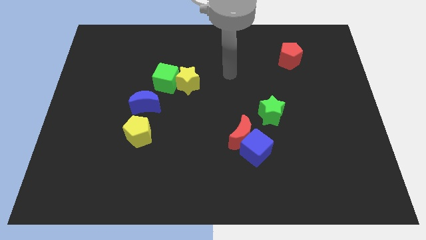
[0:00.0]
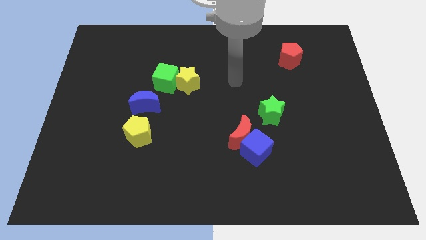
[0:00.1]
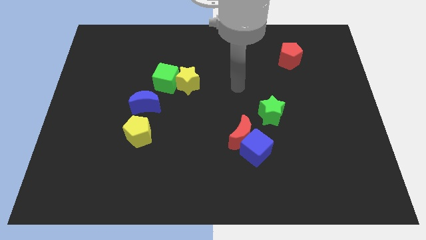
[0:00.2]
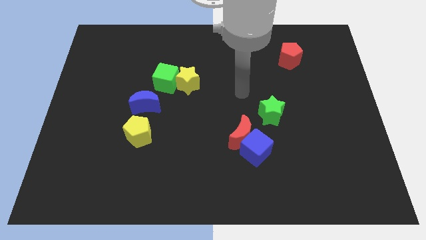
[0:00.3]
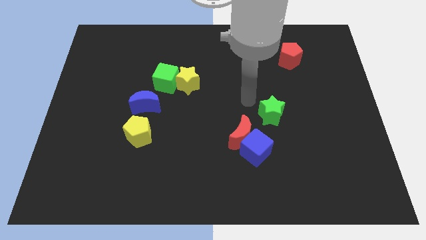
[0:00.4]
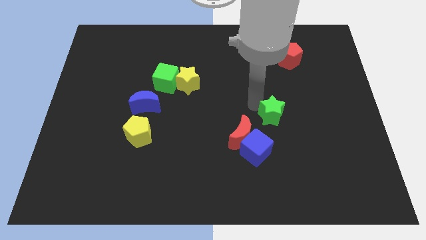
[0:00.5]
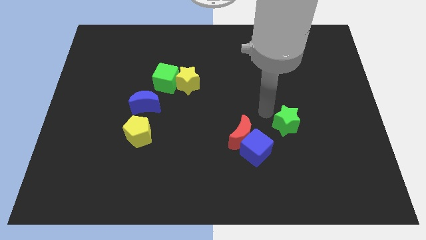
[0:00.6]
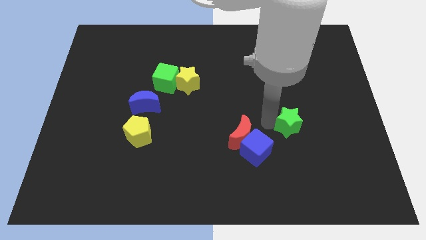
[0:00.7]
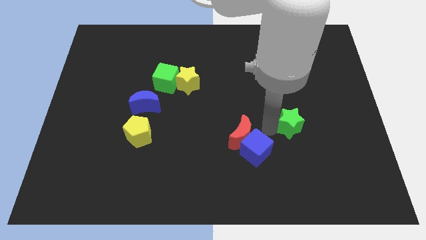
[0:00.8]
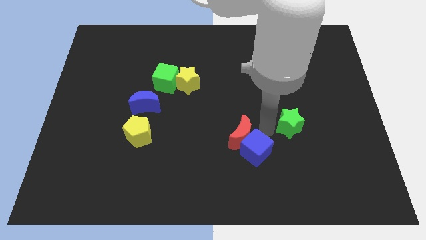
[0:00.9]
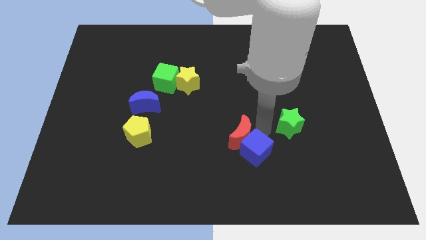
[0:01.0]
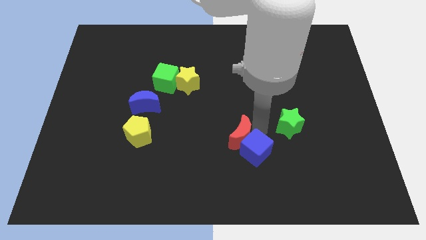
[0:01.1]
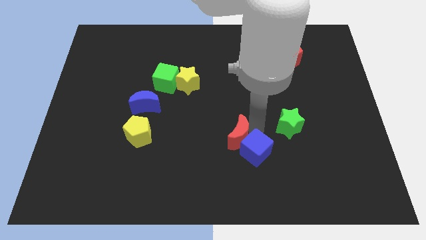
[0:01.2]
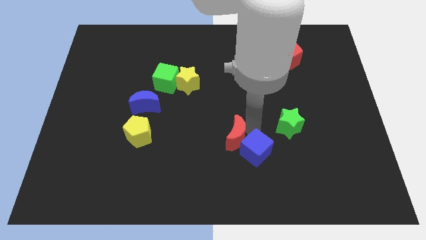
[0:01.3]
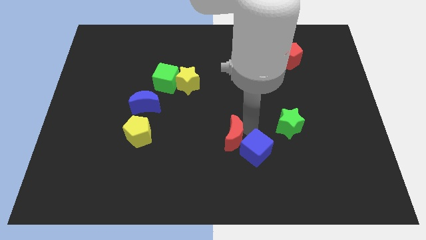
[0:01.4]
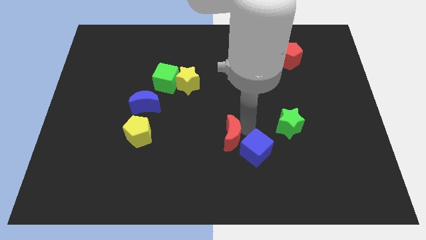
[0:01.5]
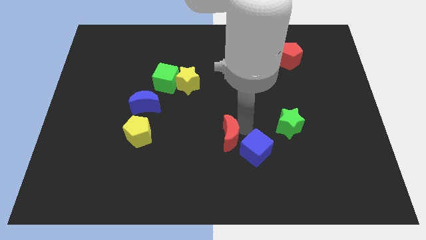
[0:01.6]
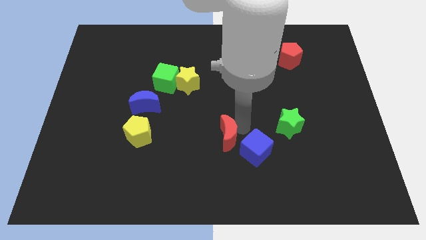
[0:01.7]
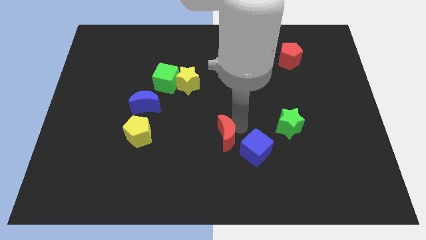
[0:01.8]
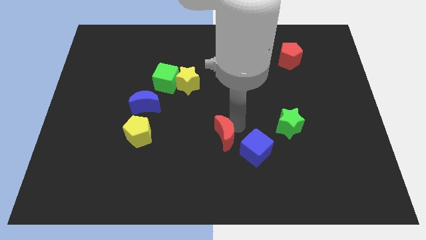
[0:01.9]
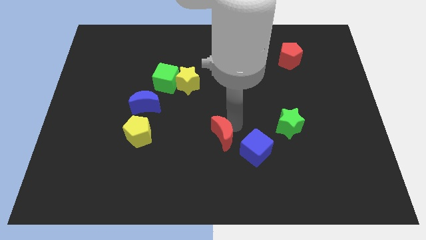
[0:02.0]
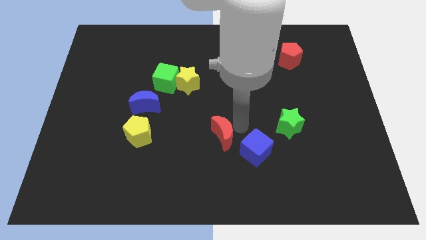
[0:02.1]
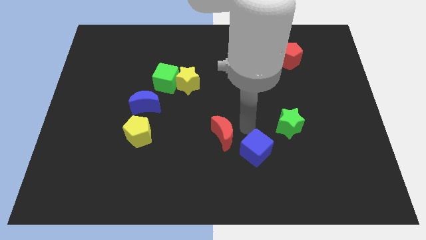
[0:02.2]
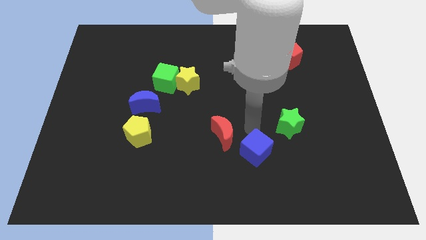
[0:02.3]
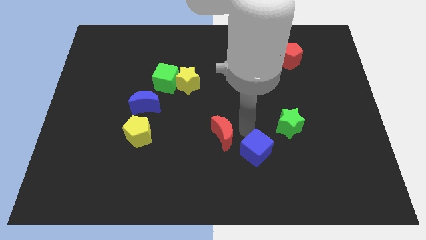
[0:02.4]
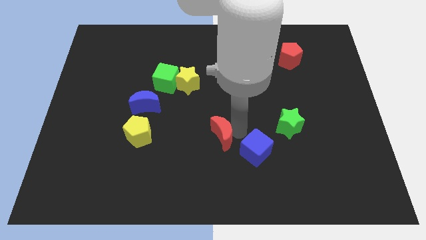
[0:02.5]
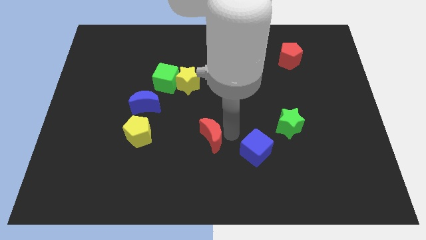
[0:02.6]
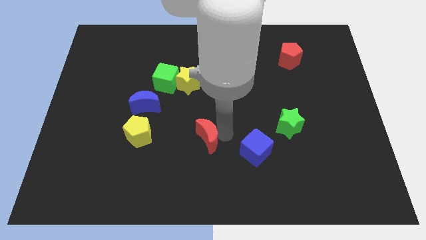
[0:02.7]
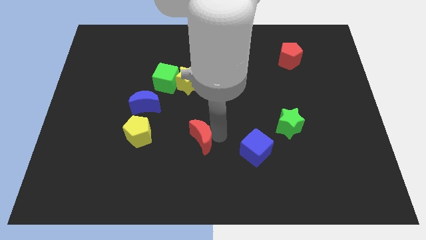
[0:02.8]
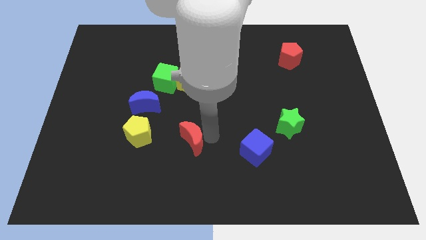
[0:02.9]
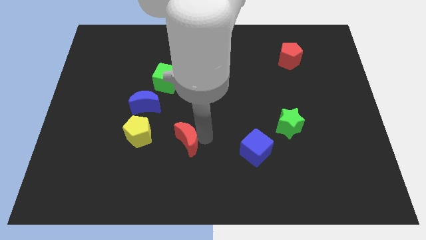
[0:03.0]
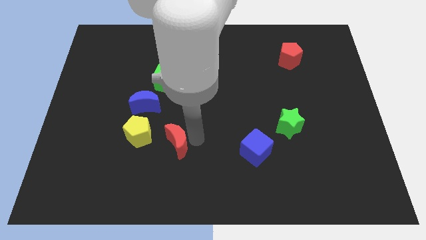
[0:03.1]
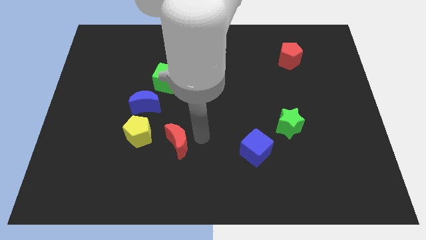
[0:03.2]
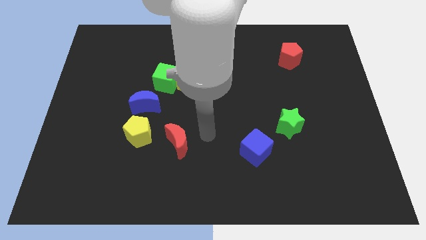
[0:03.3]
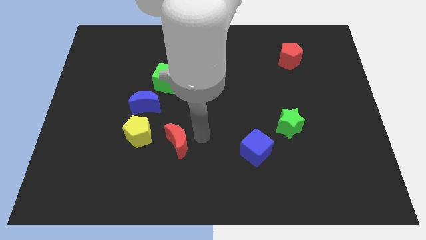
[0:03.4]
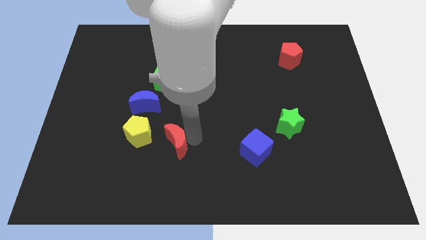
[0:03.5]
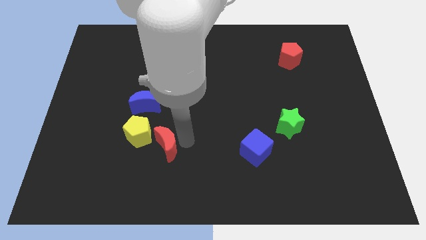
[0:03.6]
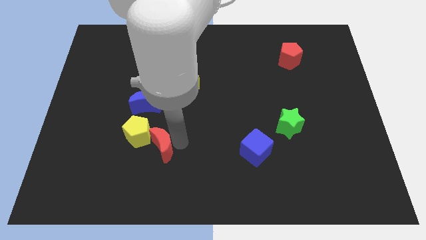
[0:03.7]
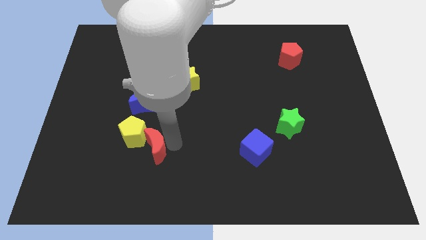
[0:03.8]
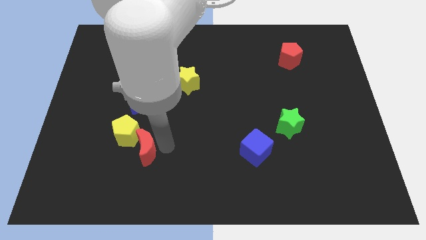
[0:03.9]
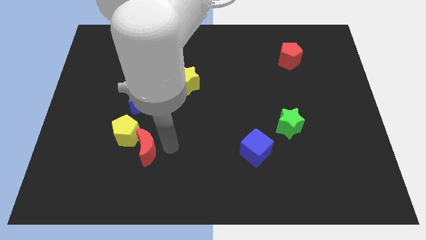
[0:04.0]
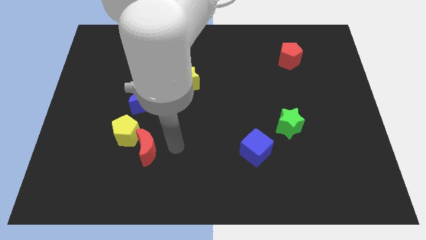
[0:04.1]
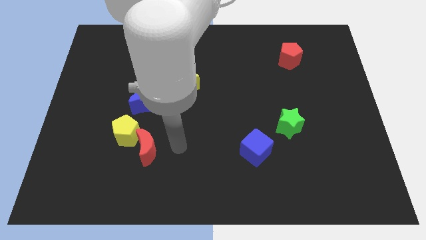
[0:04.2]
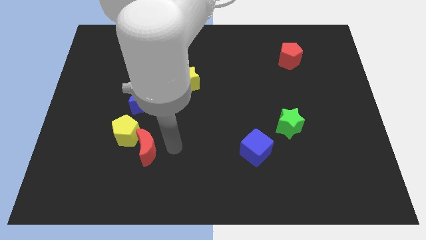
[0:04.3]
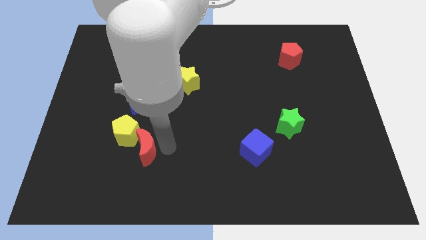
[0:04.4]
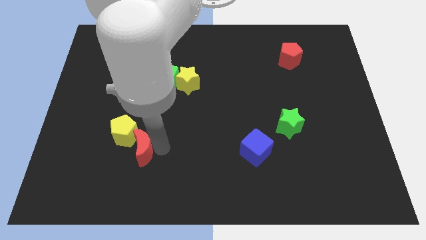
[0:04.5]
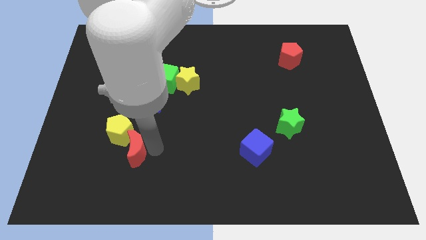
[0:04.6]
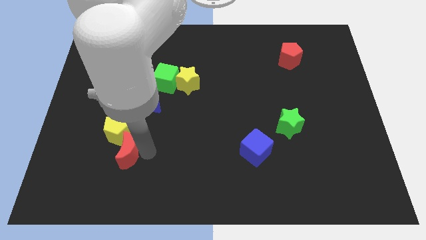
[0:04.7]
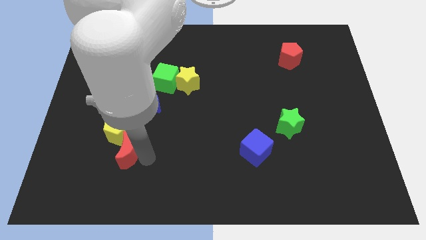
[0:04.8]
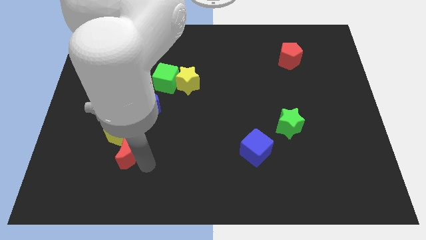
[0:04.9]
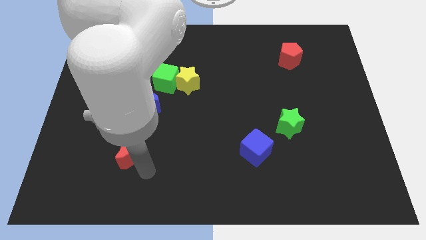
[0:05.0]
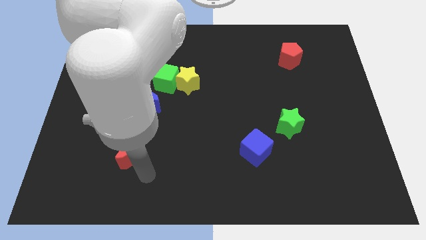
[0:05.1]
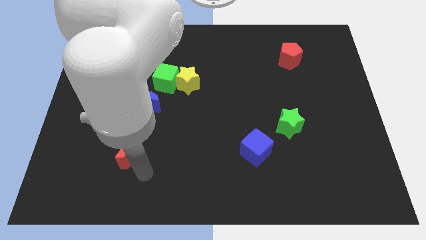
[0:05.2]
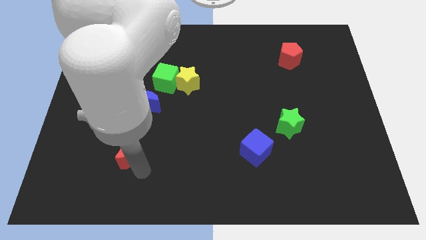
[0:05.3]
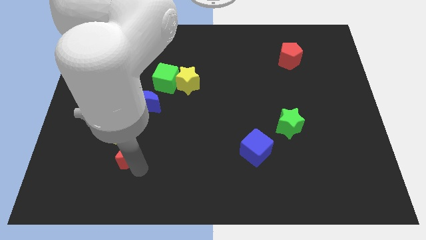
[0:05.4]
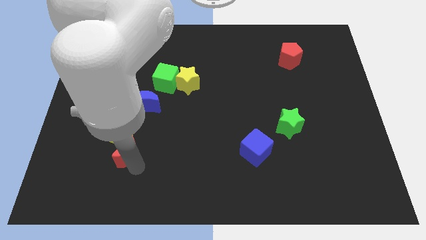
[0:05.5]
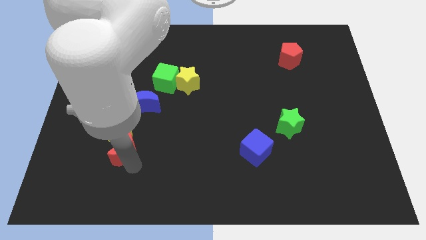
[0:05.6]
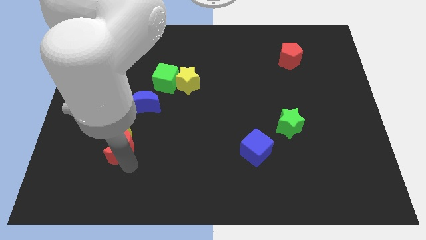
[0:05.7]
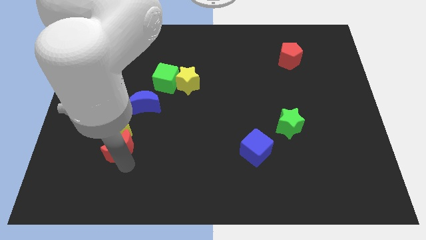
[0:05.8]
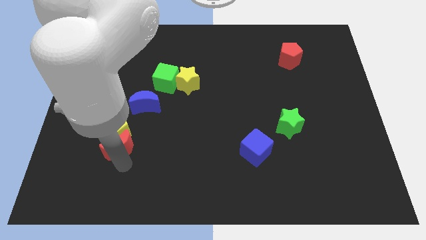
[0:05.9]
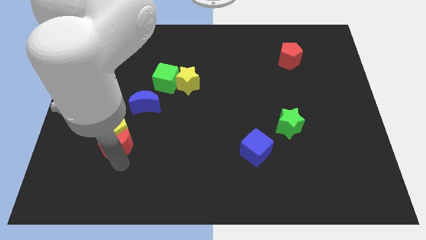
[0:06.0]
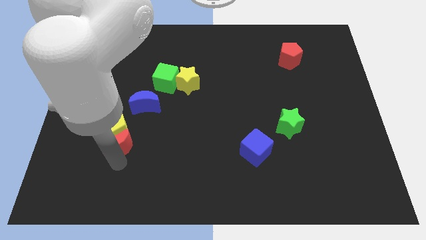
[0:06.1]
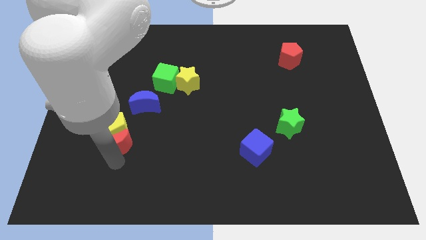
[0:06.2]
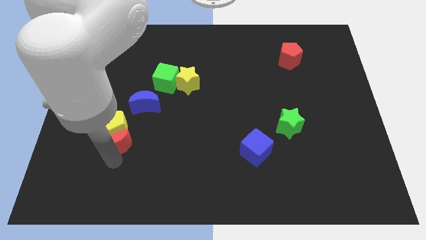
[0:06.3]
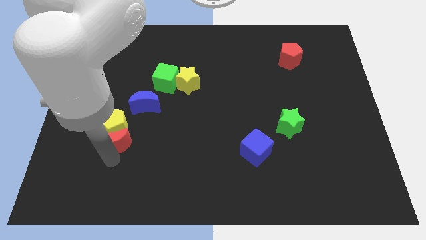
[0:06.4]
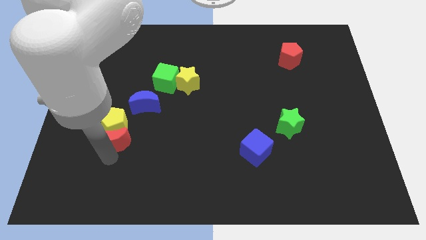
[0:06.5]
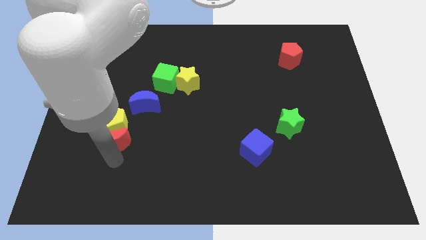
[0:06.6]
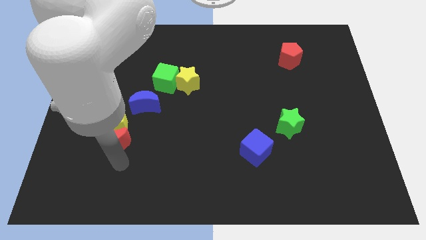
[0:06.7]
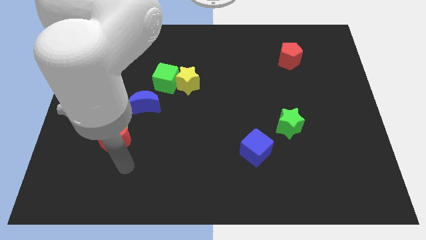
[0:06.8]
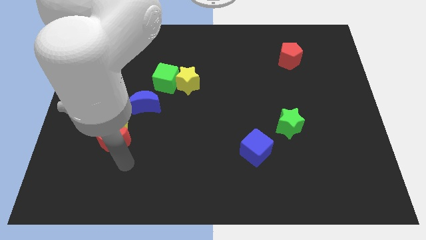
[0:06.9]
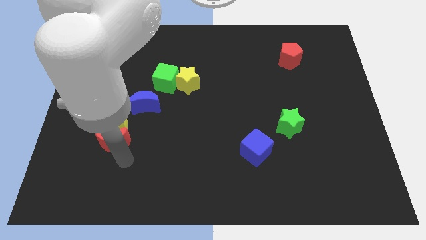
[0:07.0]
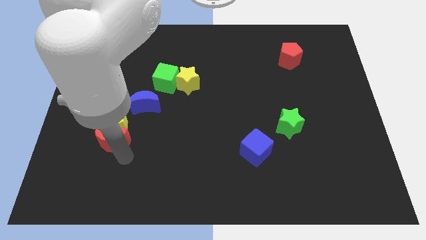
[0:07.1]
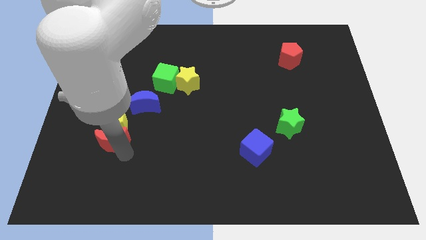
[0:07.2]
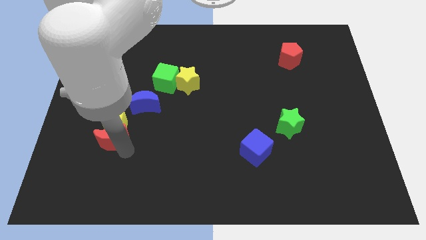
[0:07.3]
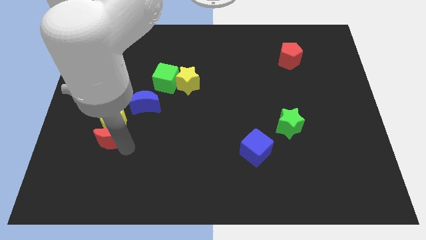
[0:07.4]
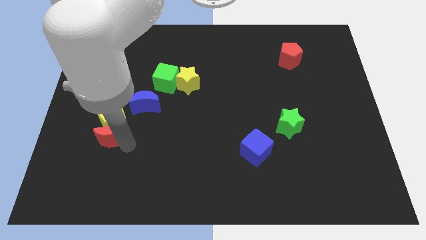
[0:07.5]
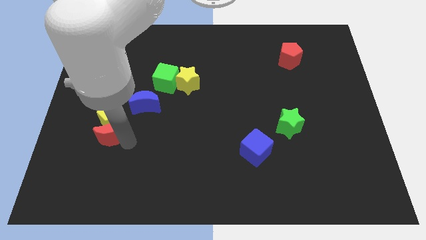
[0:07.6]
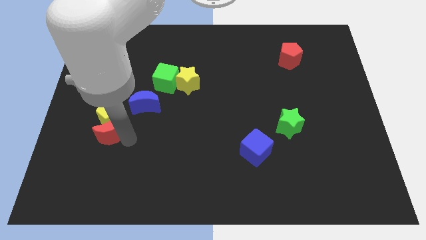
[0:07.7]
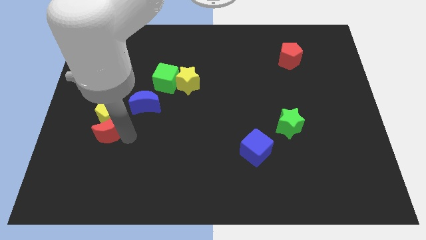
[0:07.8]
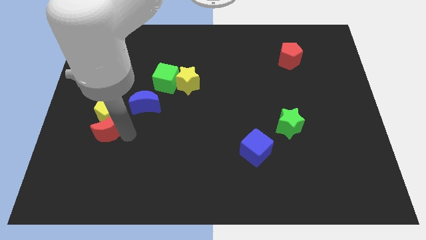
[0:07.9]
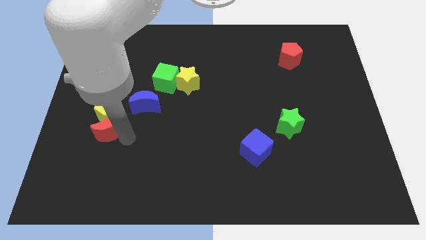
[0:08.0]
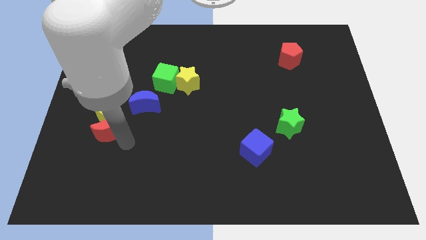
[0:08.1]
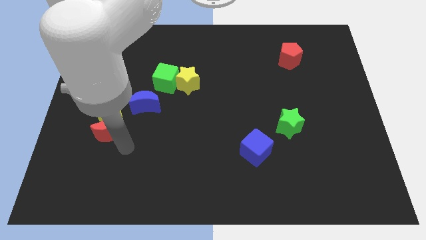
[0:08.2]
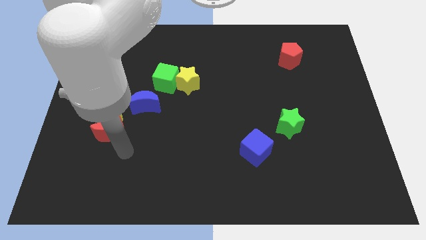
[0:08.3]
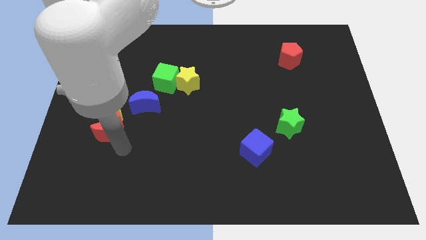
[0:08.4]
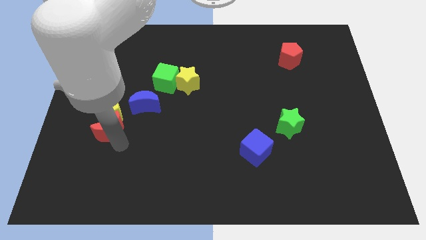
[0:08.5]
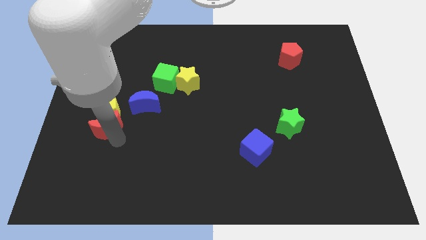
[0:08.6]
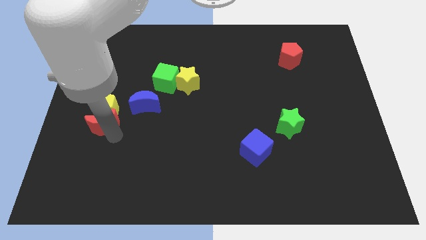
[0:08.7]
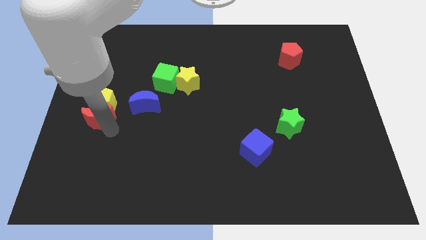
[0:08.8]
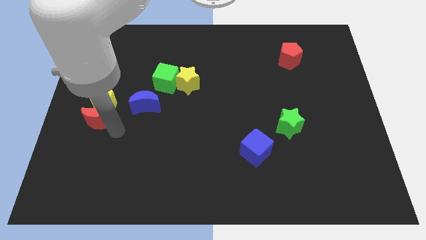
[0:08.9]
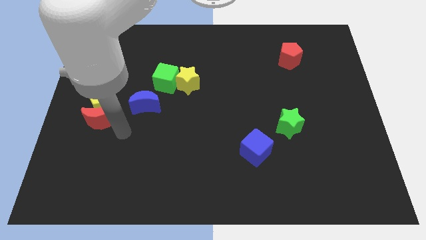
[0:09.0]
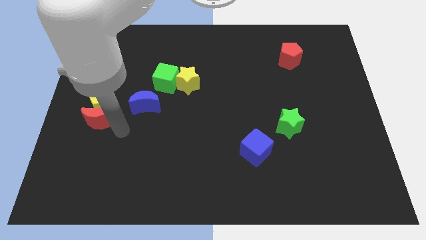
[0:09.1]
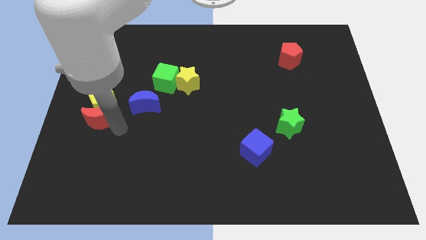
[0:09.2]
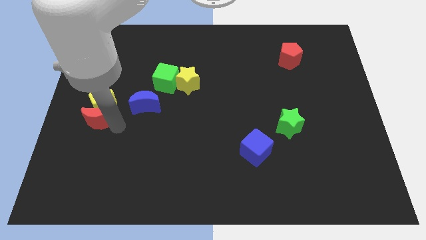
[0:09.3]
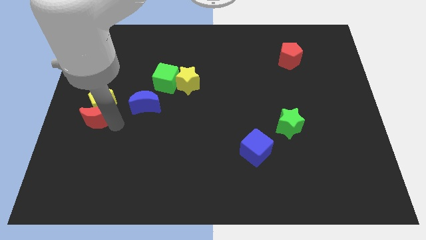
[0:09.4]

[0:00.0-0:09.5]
slide the red moon to the left side of the board
